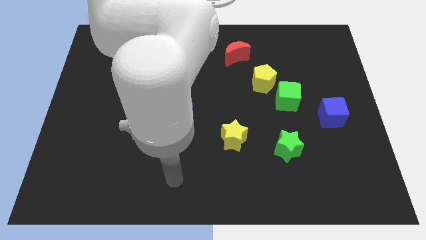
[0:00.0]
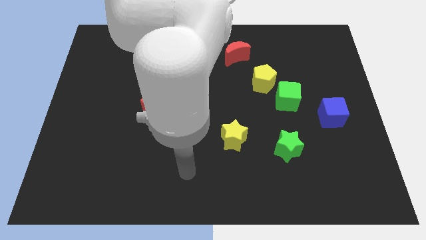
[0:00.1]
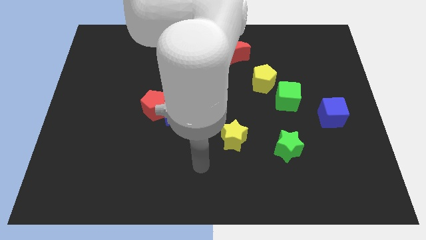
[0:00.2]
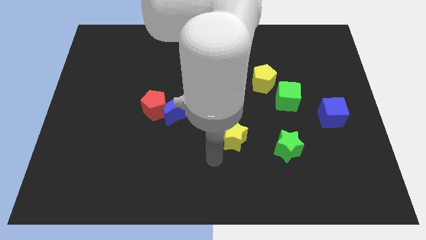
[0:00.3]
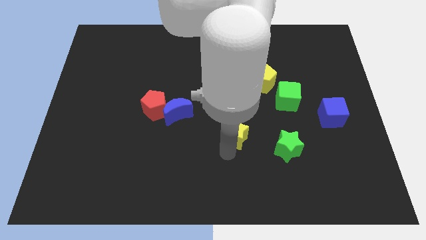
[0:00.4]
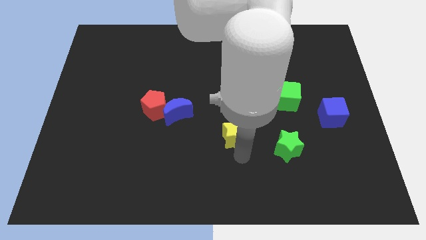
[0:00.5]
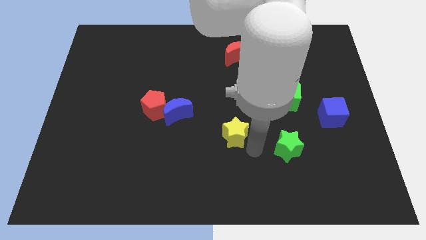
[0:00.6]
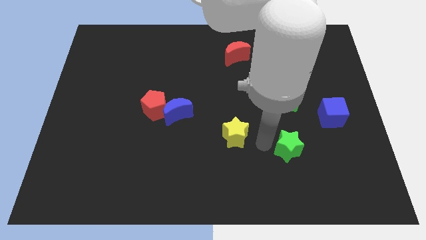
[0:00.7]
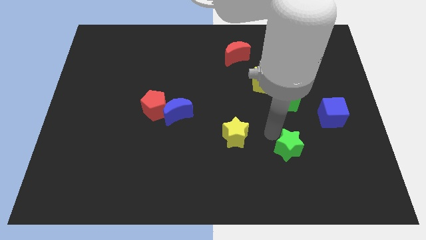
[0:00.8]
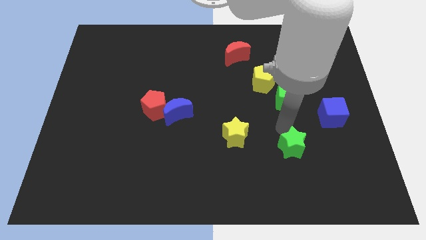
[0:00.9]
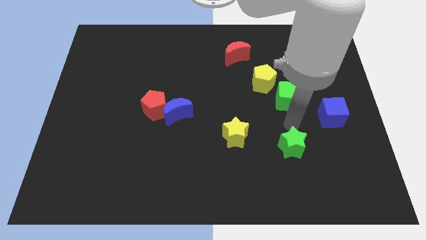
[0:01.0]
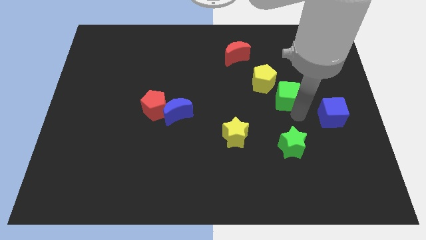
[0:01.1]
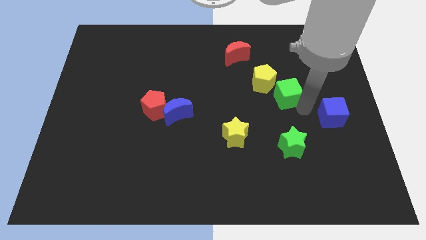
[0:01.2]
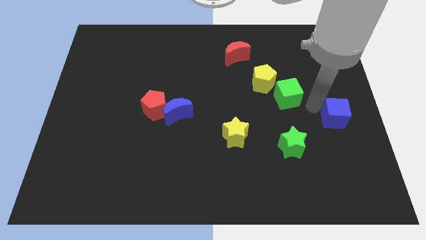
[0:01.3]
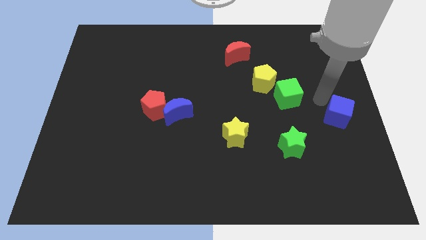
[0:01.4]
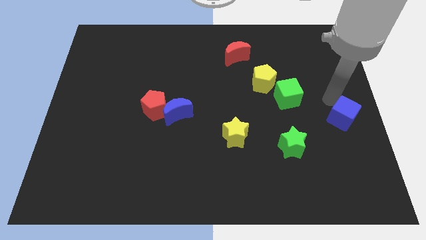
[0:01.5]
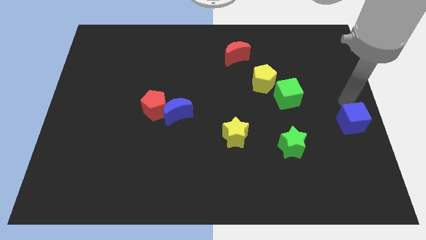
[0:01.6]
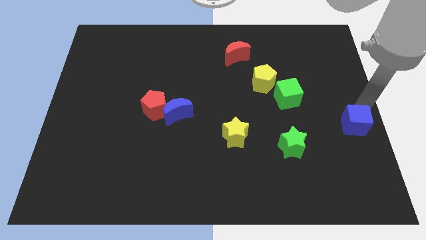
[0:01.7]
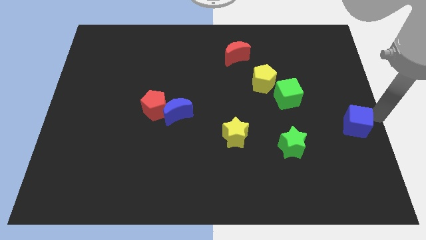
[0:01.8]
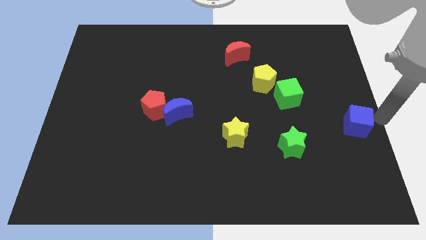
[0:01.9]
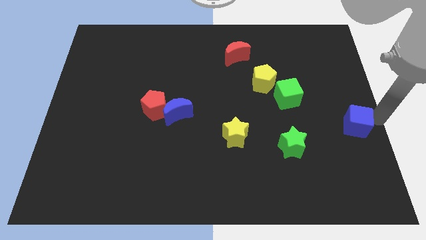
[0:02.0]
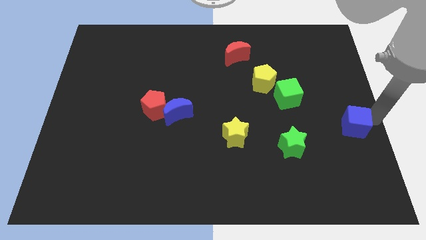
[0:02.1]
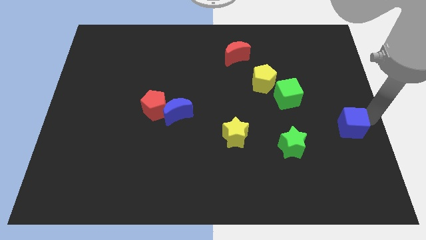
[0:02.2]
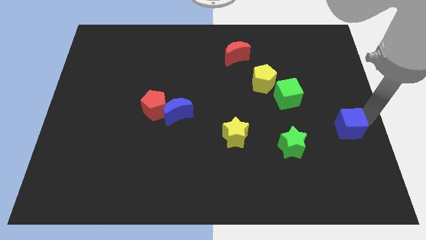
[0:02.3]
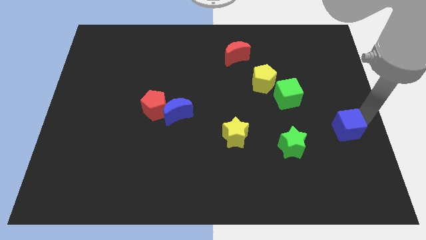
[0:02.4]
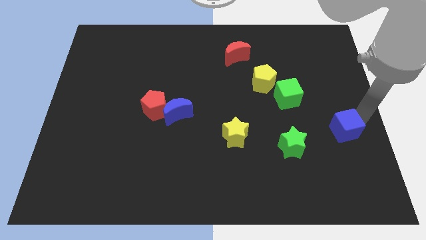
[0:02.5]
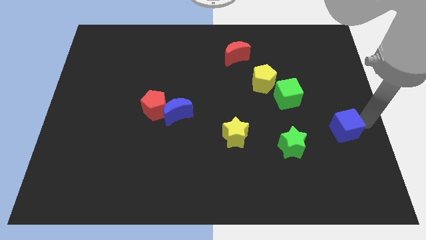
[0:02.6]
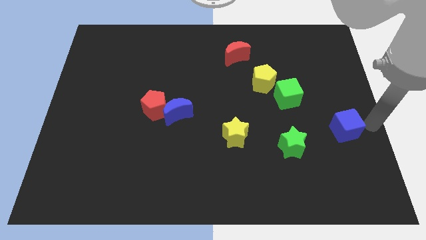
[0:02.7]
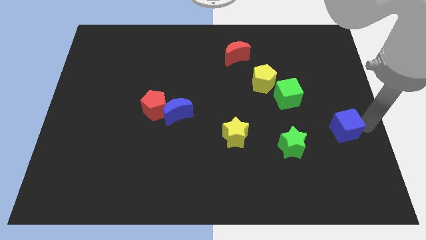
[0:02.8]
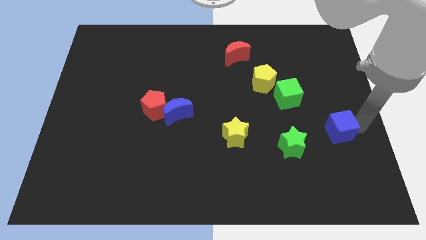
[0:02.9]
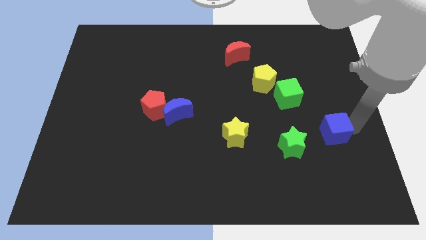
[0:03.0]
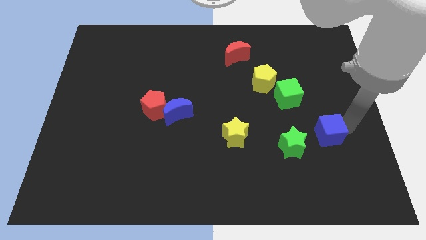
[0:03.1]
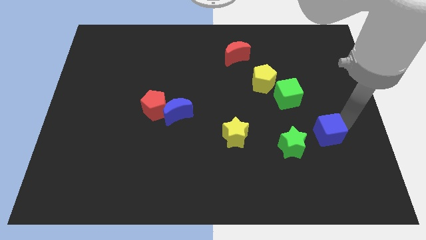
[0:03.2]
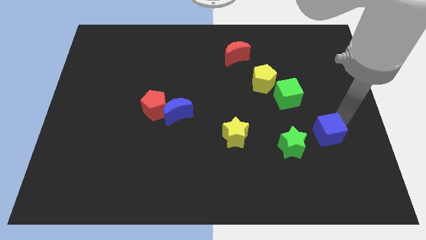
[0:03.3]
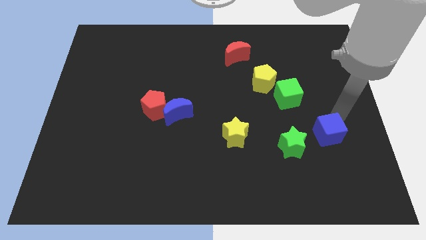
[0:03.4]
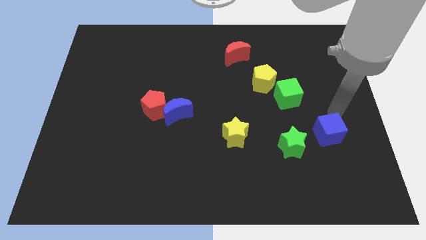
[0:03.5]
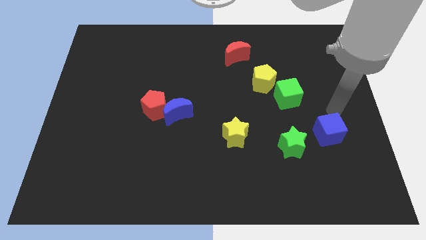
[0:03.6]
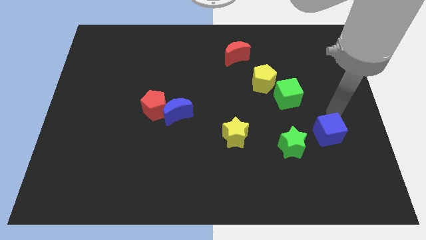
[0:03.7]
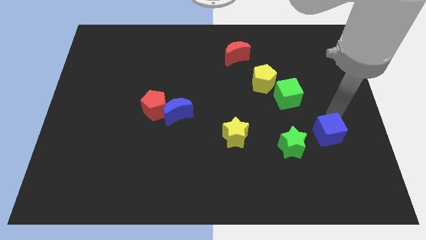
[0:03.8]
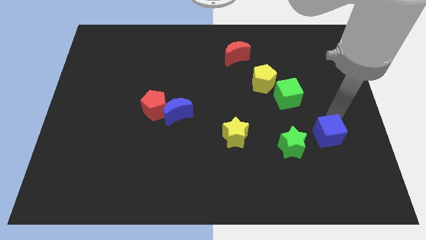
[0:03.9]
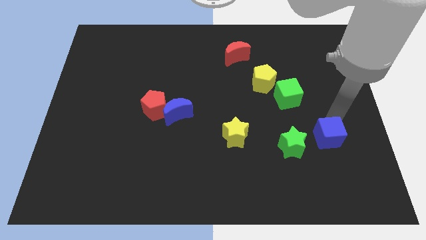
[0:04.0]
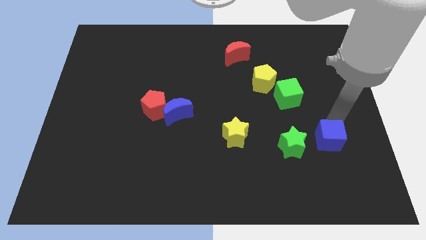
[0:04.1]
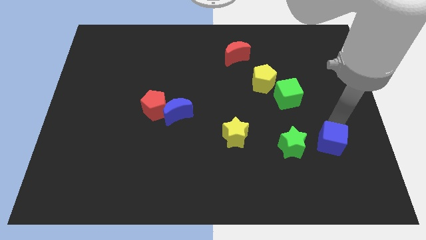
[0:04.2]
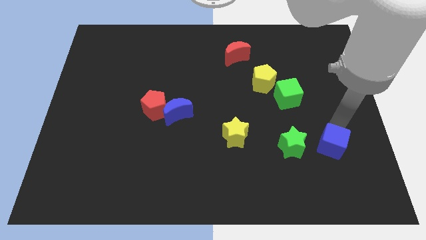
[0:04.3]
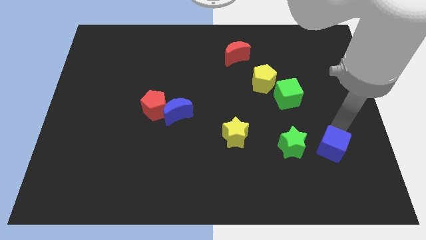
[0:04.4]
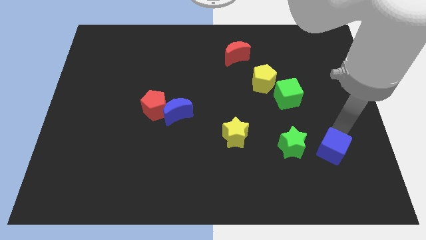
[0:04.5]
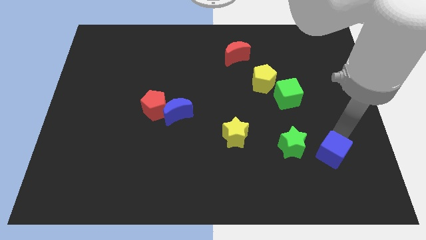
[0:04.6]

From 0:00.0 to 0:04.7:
put the blue cube to the bottom right of the green star

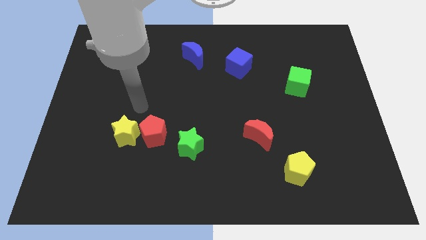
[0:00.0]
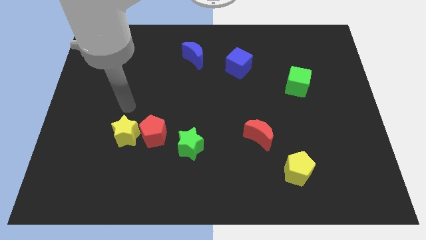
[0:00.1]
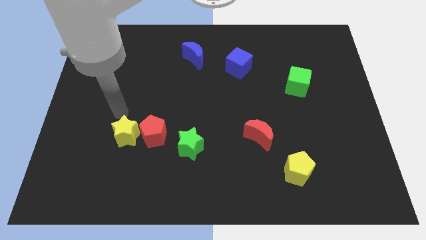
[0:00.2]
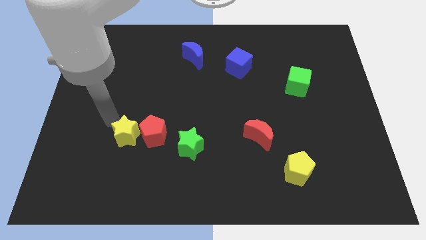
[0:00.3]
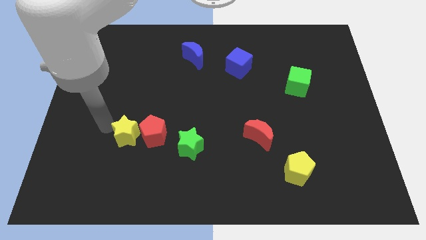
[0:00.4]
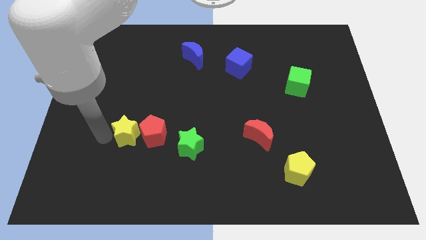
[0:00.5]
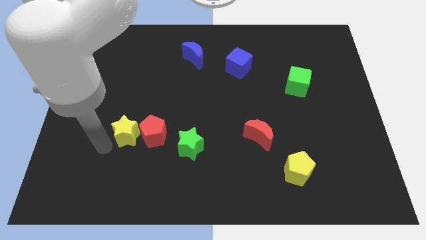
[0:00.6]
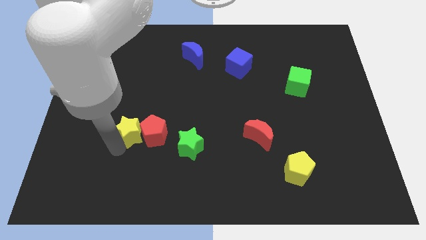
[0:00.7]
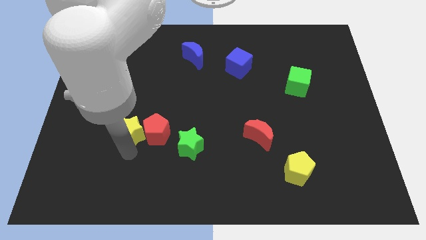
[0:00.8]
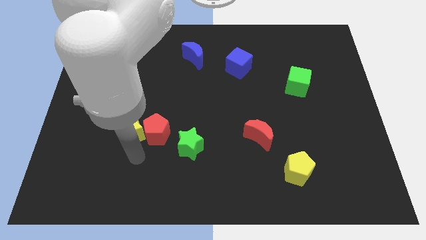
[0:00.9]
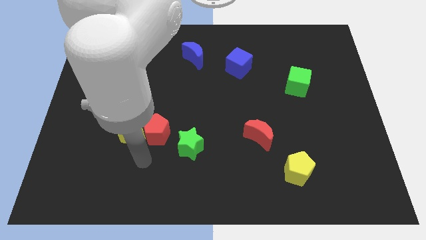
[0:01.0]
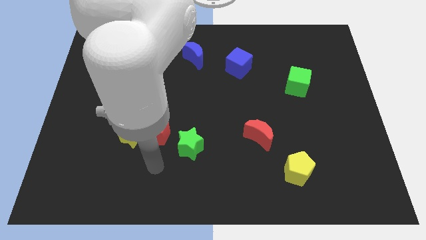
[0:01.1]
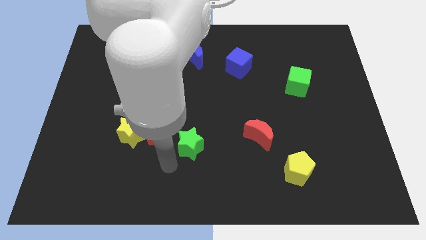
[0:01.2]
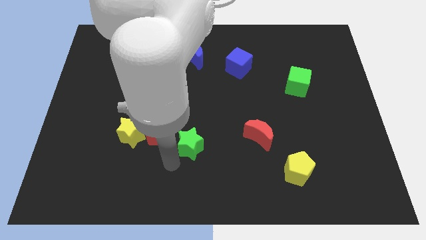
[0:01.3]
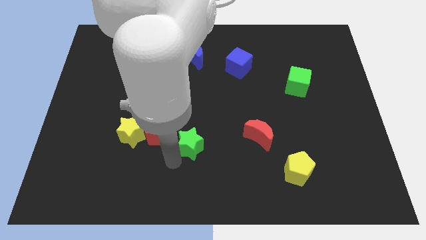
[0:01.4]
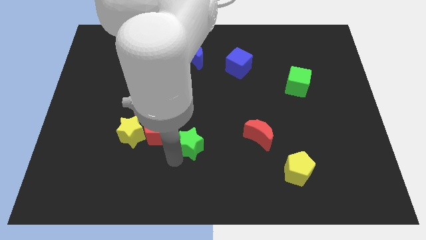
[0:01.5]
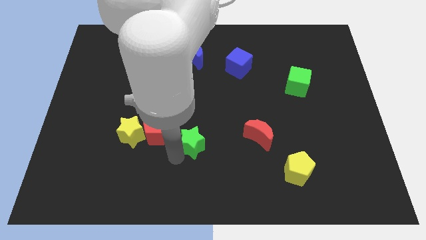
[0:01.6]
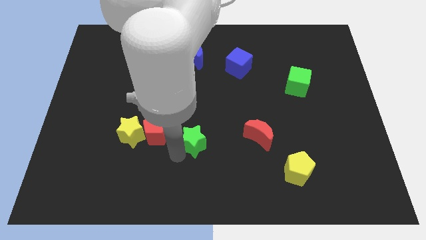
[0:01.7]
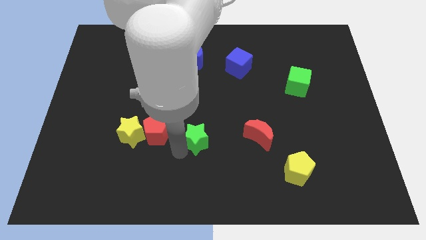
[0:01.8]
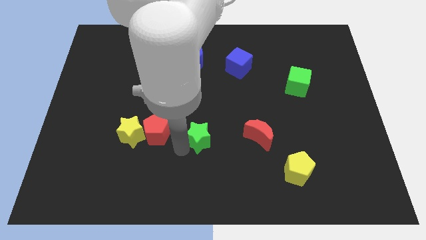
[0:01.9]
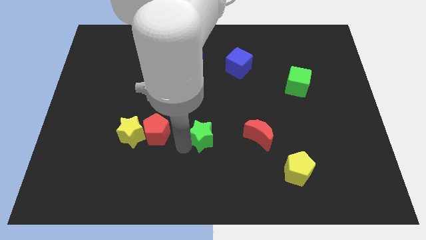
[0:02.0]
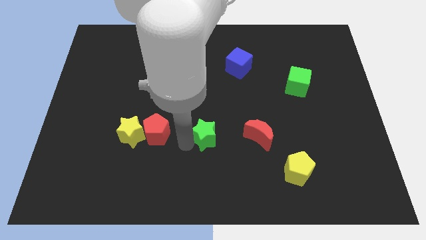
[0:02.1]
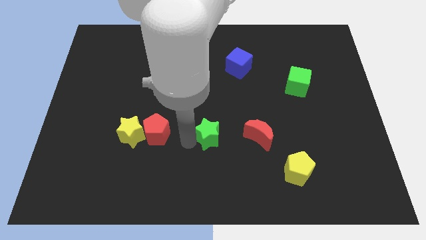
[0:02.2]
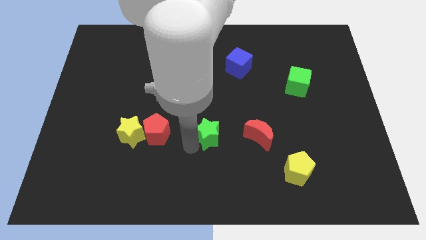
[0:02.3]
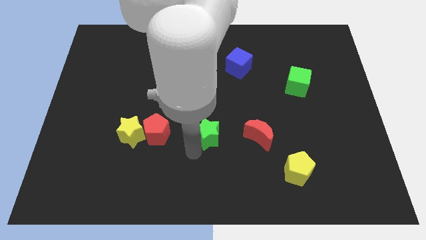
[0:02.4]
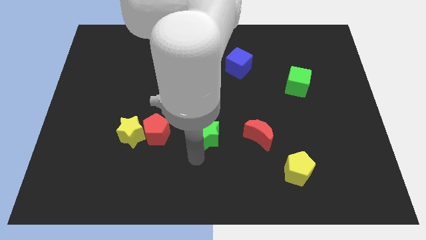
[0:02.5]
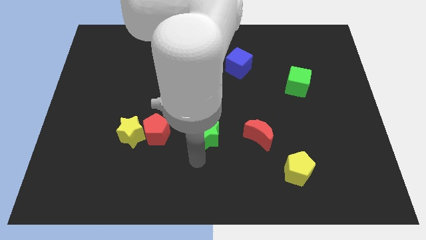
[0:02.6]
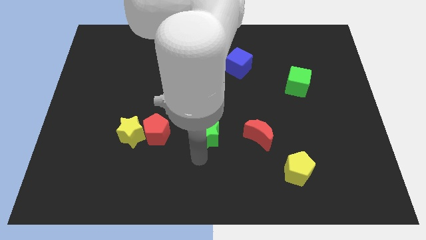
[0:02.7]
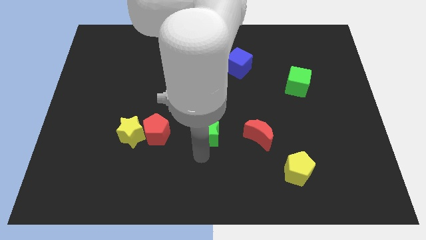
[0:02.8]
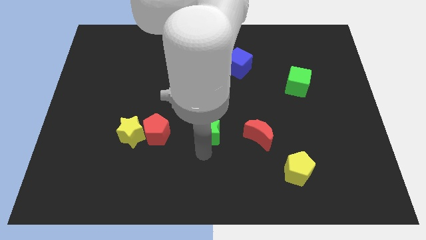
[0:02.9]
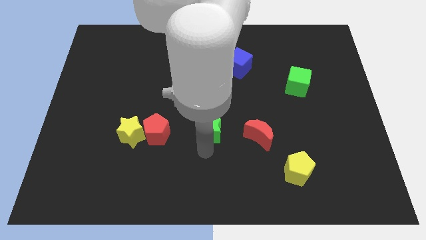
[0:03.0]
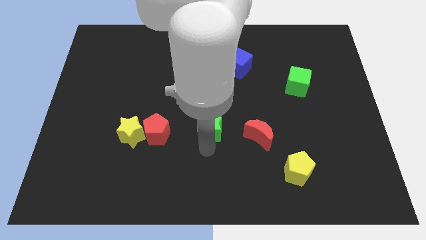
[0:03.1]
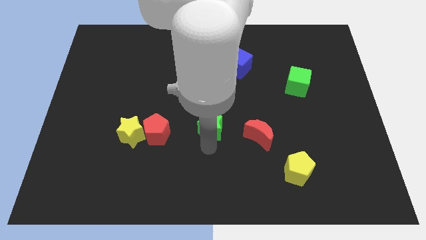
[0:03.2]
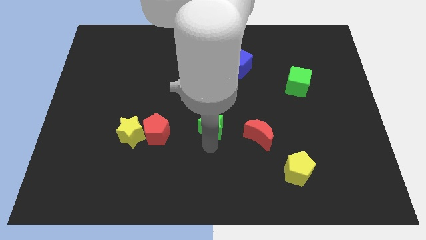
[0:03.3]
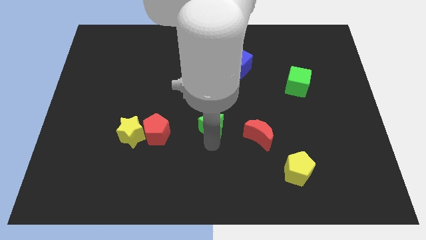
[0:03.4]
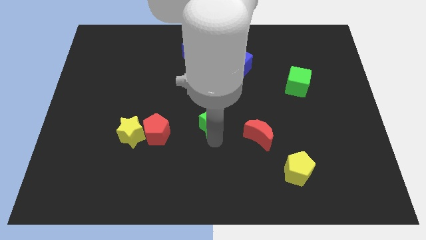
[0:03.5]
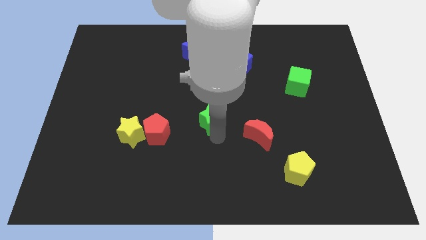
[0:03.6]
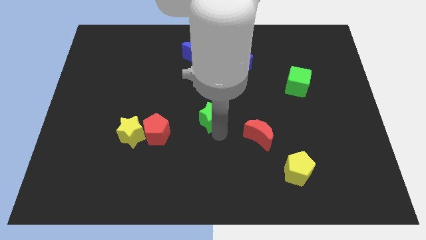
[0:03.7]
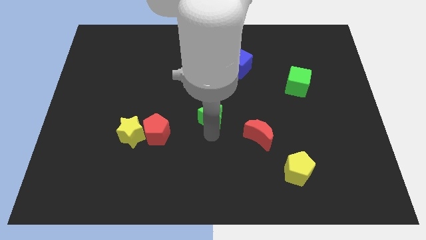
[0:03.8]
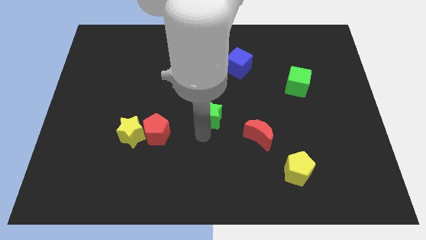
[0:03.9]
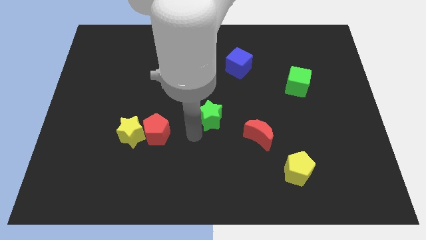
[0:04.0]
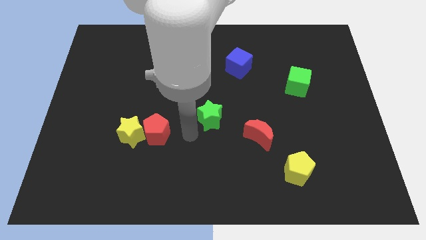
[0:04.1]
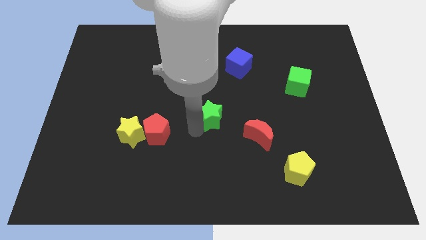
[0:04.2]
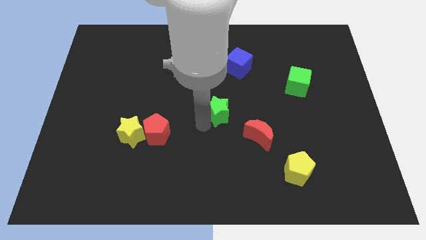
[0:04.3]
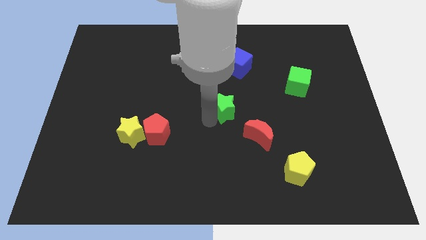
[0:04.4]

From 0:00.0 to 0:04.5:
slide the green star below the blue cube
